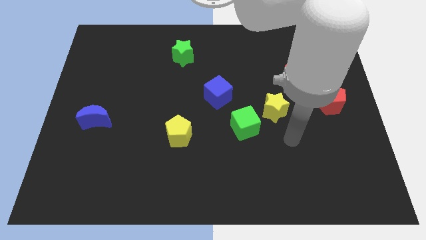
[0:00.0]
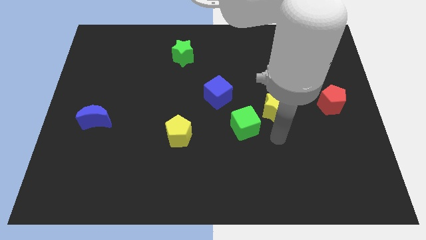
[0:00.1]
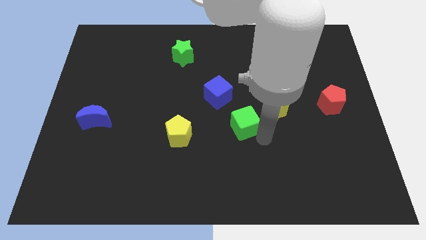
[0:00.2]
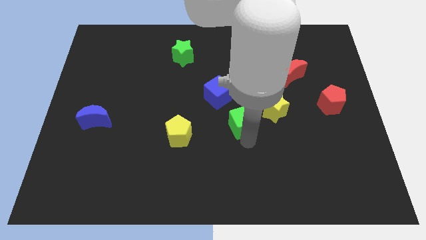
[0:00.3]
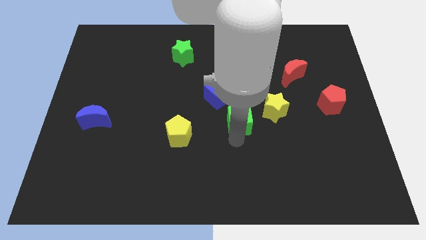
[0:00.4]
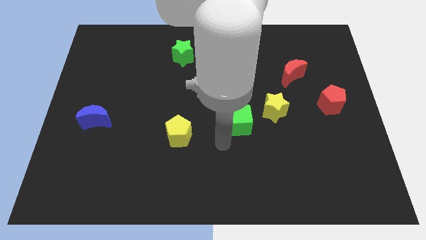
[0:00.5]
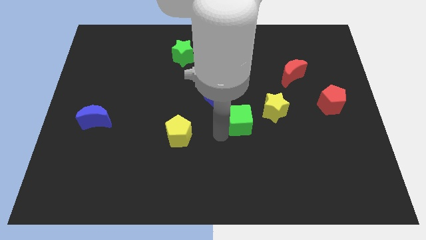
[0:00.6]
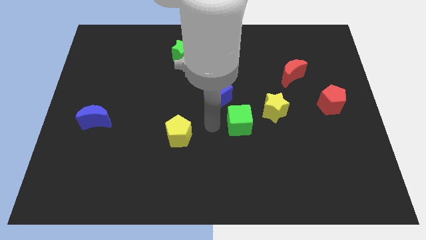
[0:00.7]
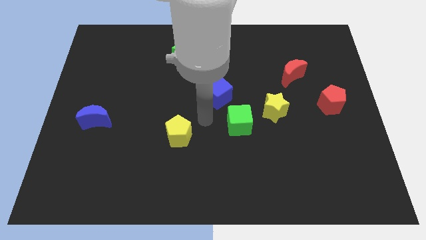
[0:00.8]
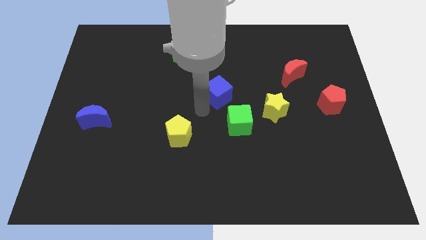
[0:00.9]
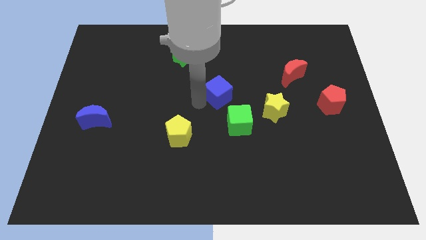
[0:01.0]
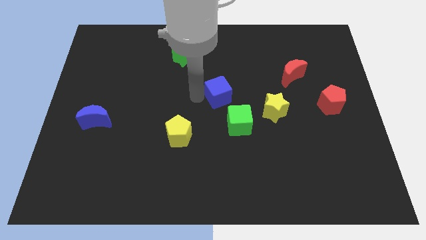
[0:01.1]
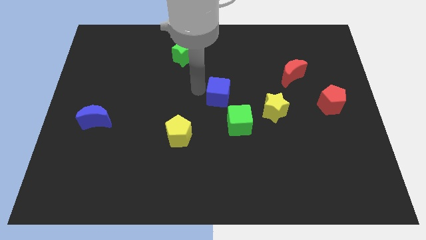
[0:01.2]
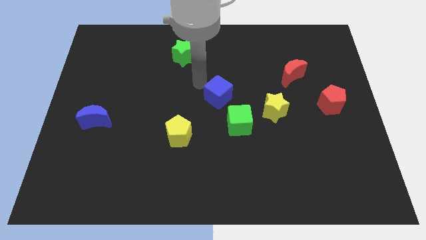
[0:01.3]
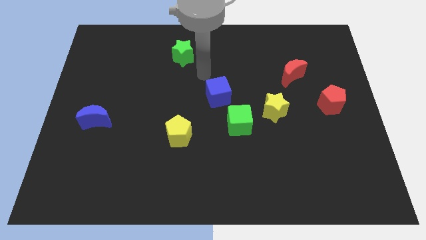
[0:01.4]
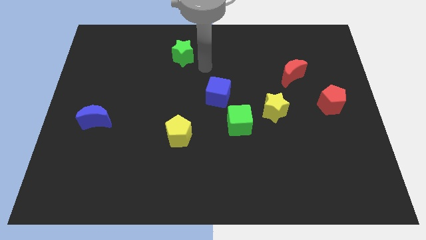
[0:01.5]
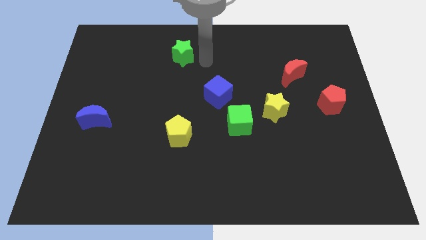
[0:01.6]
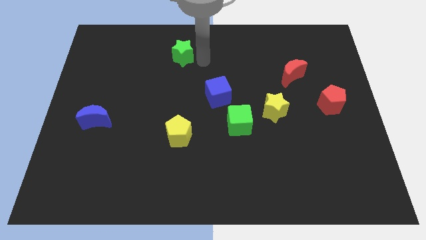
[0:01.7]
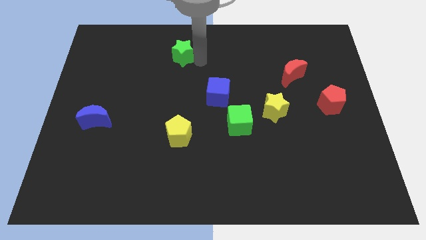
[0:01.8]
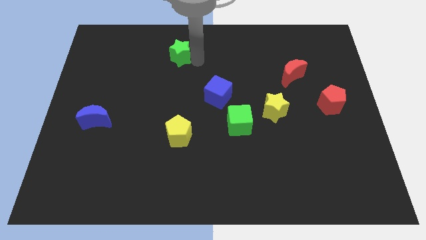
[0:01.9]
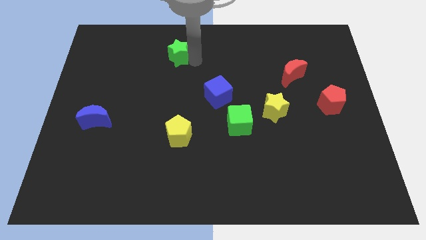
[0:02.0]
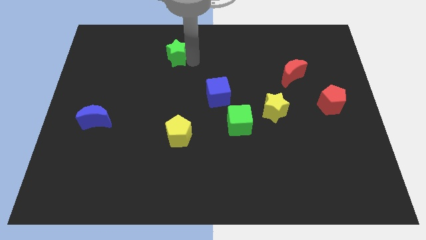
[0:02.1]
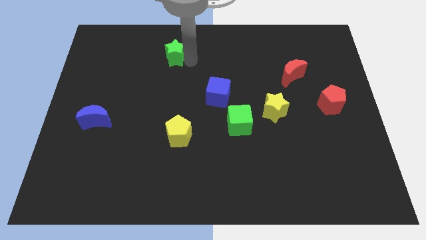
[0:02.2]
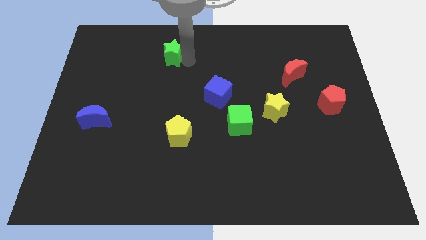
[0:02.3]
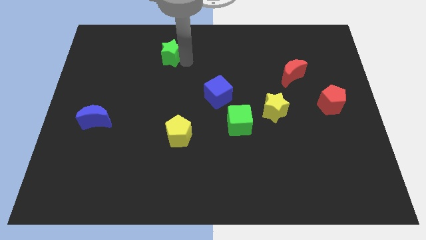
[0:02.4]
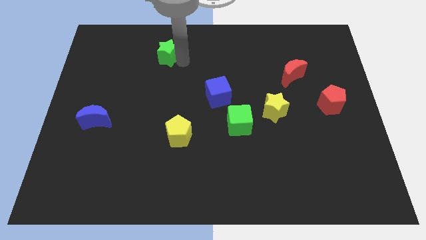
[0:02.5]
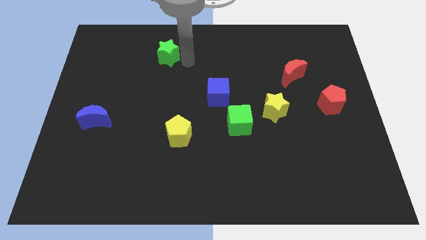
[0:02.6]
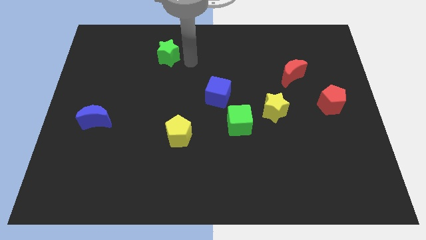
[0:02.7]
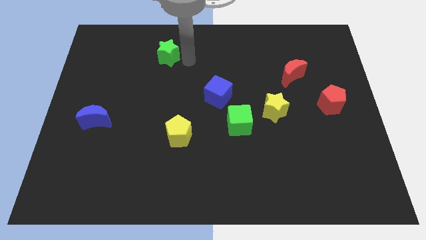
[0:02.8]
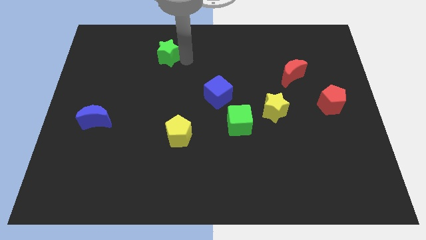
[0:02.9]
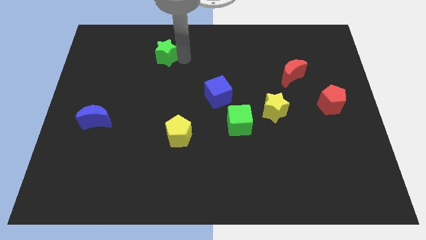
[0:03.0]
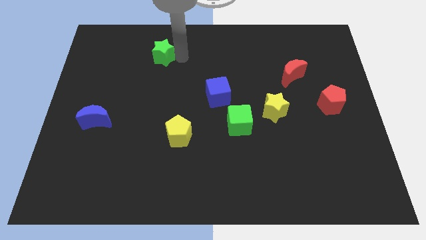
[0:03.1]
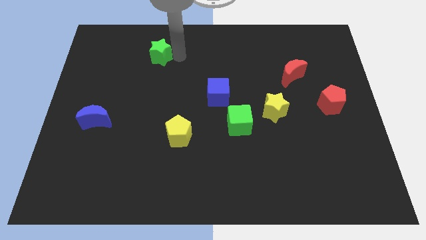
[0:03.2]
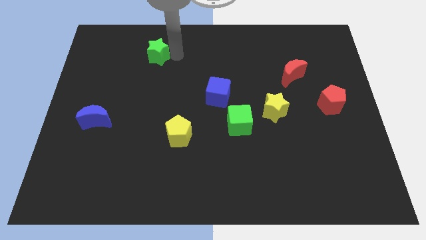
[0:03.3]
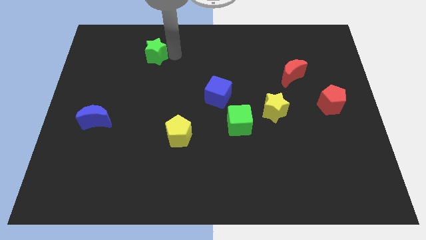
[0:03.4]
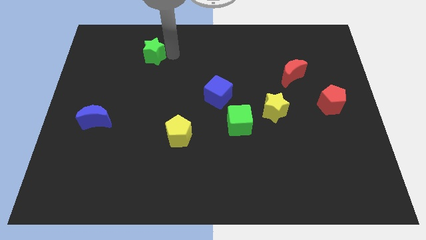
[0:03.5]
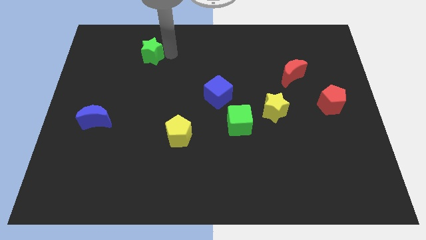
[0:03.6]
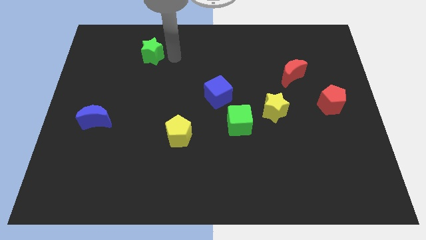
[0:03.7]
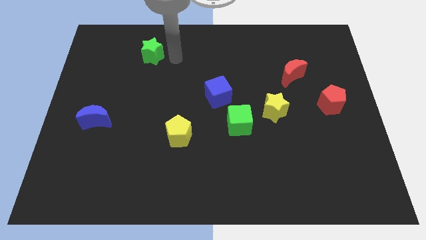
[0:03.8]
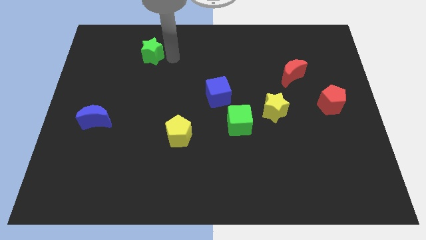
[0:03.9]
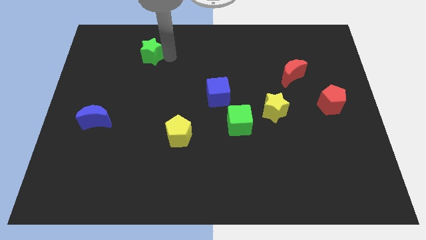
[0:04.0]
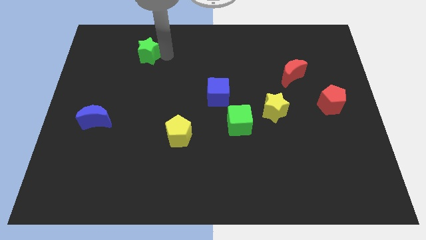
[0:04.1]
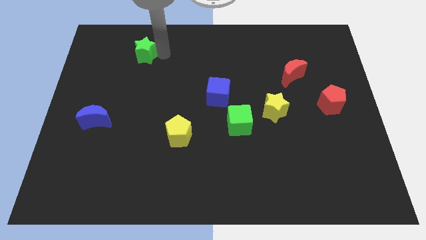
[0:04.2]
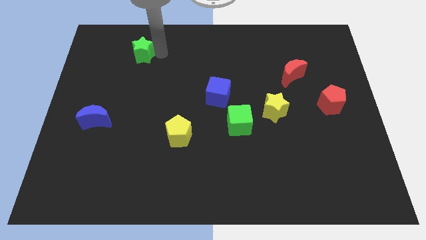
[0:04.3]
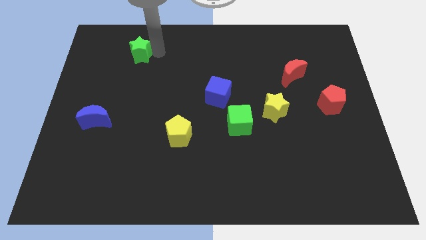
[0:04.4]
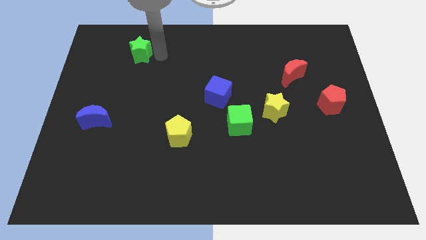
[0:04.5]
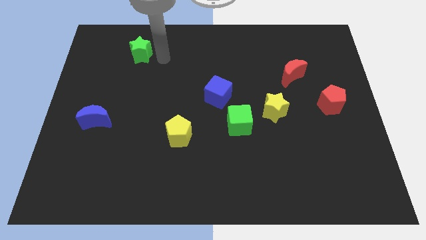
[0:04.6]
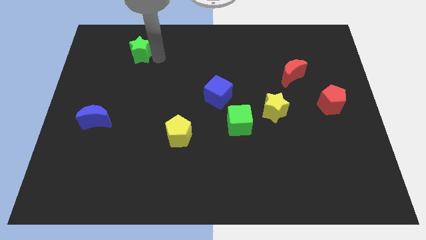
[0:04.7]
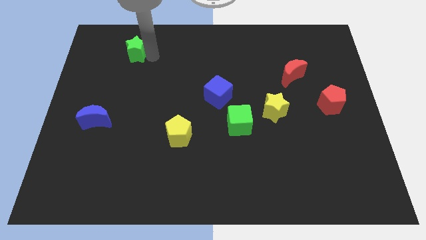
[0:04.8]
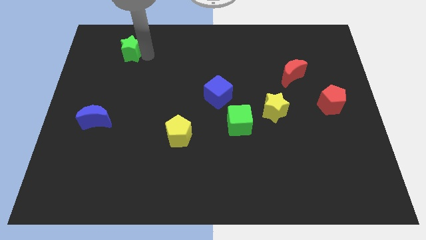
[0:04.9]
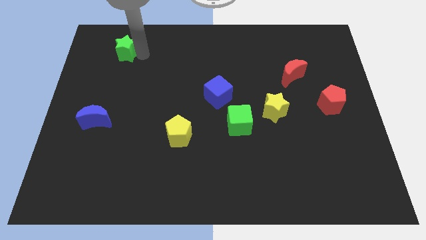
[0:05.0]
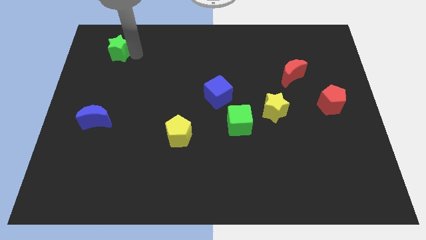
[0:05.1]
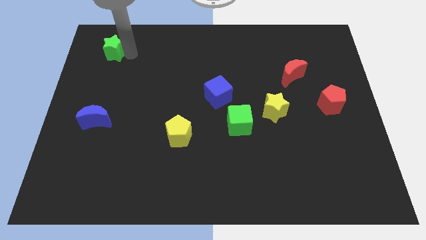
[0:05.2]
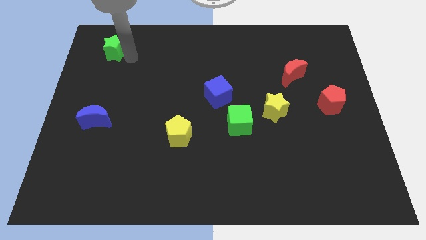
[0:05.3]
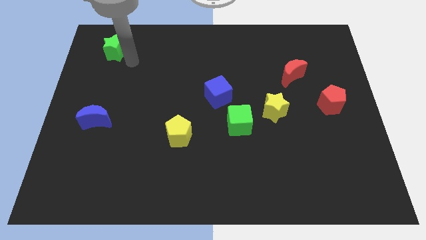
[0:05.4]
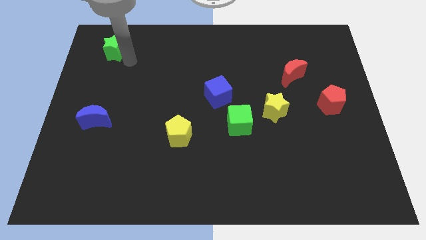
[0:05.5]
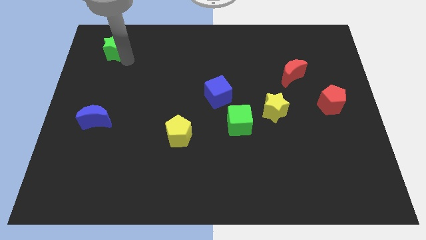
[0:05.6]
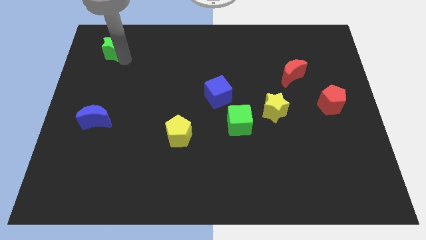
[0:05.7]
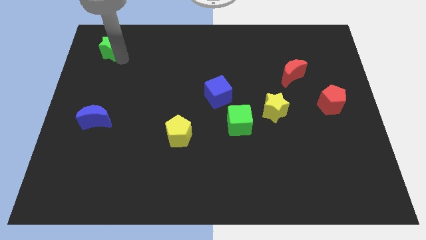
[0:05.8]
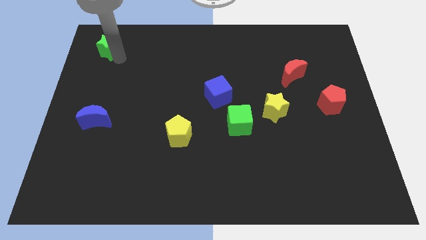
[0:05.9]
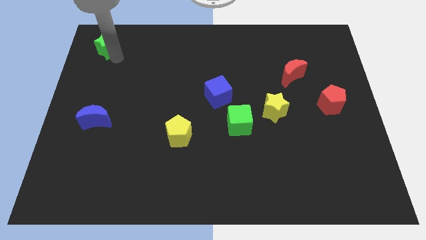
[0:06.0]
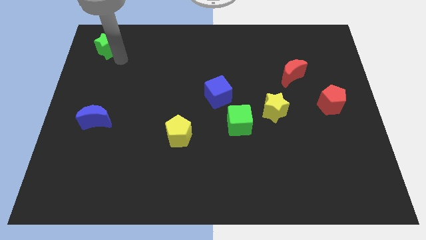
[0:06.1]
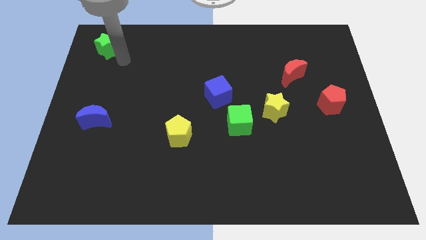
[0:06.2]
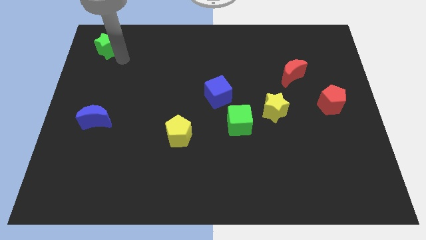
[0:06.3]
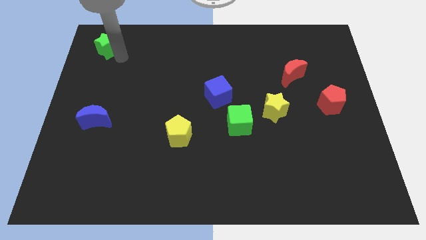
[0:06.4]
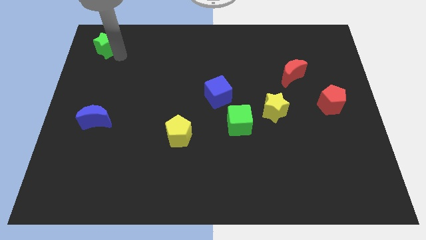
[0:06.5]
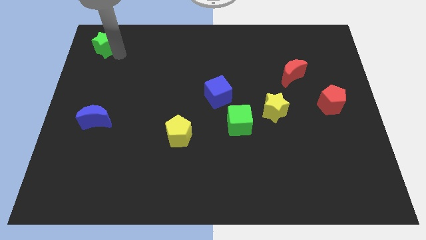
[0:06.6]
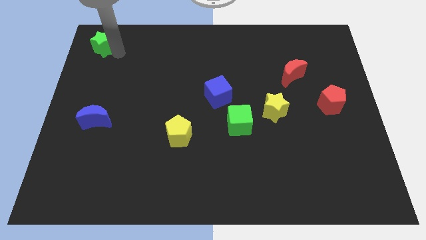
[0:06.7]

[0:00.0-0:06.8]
push the green star to the top left
